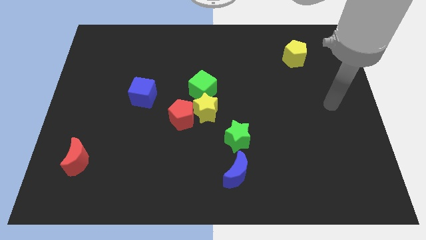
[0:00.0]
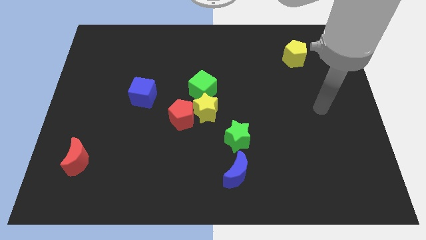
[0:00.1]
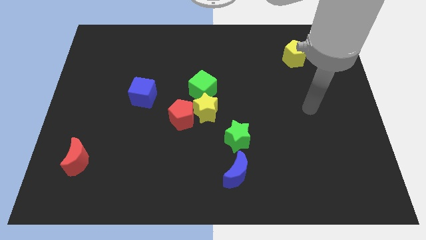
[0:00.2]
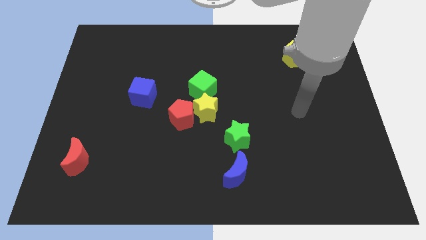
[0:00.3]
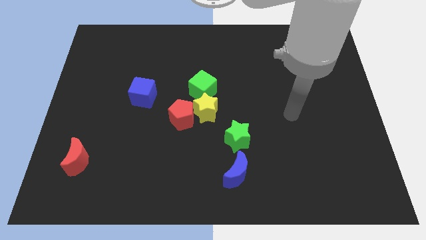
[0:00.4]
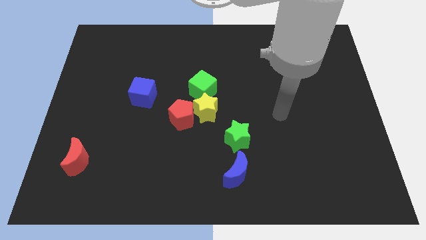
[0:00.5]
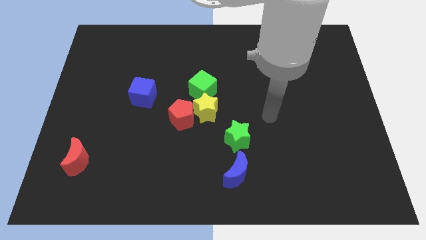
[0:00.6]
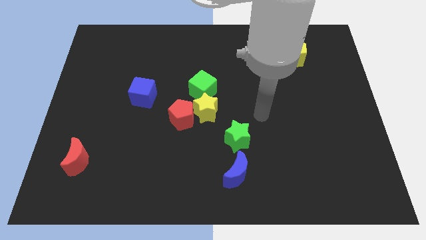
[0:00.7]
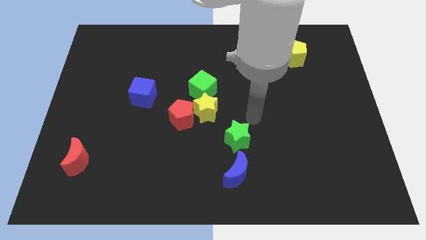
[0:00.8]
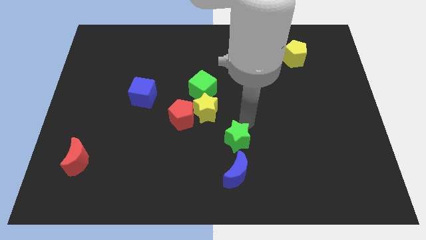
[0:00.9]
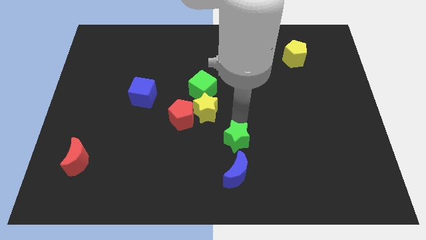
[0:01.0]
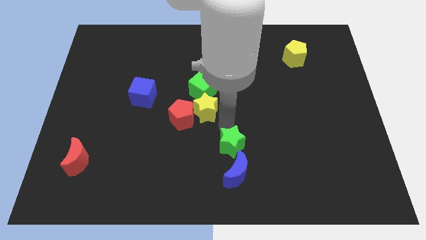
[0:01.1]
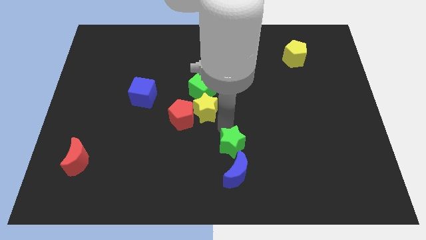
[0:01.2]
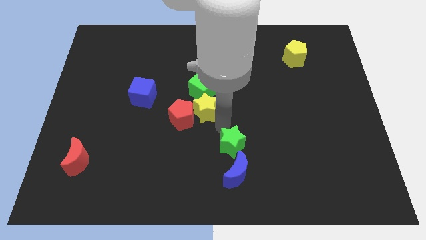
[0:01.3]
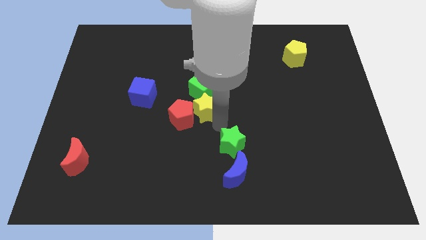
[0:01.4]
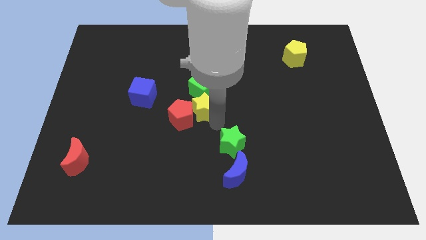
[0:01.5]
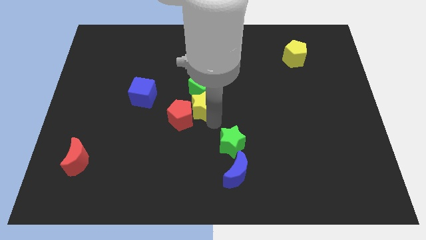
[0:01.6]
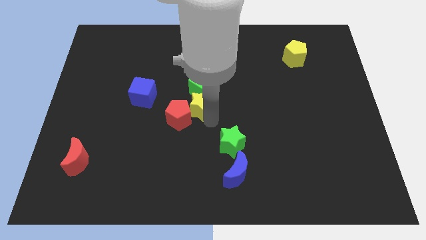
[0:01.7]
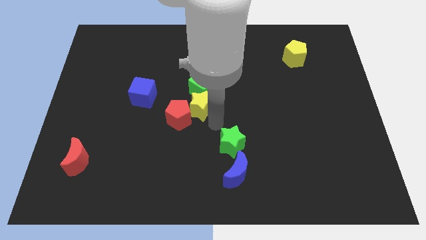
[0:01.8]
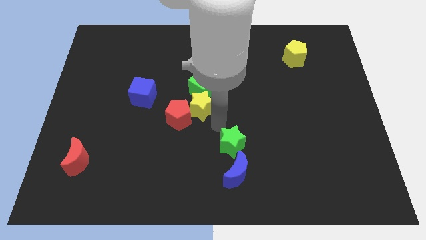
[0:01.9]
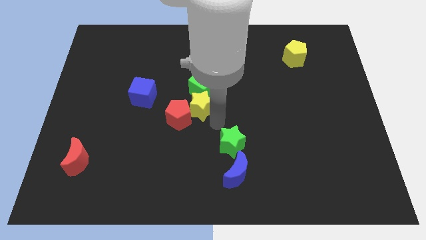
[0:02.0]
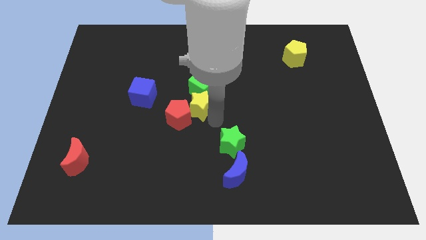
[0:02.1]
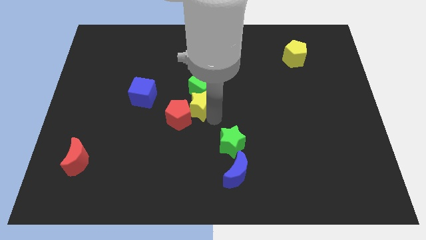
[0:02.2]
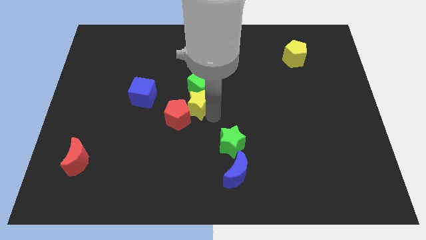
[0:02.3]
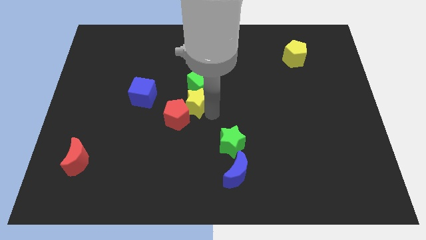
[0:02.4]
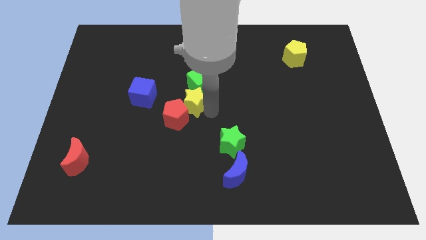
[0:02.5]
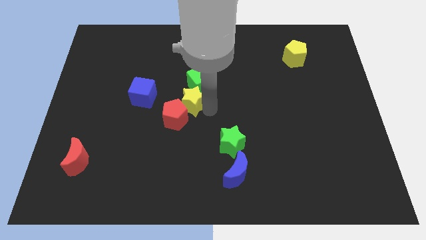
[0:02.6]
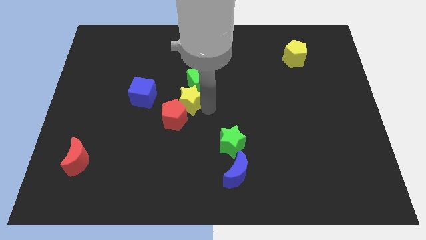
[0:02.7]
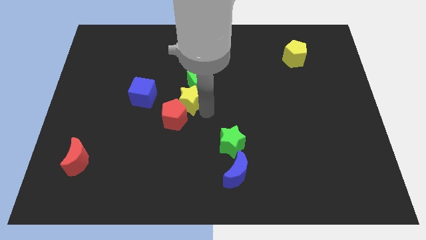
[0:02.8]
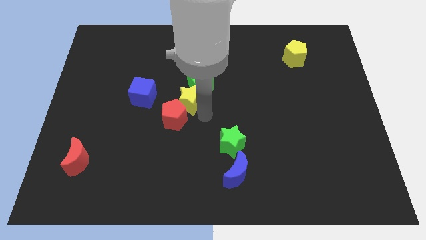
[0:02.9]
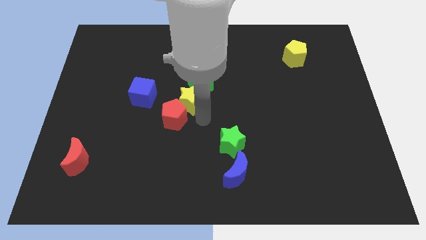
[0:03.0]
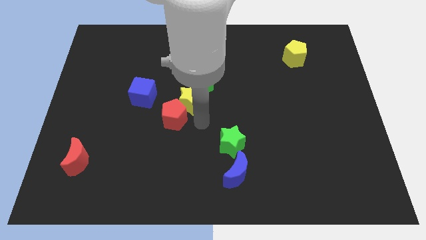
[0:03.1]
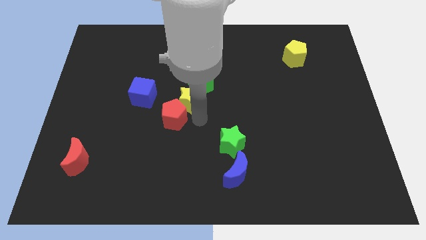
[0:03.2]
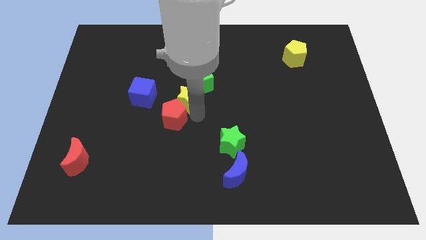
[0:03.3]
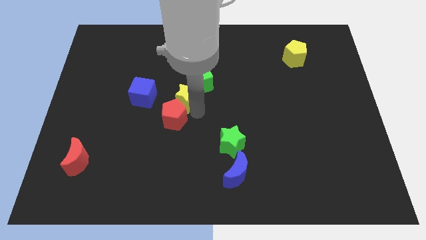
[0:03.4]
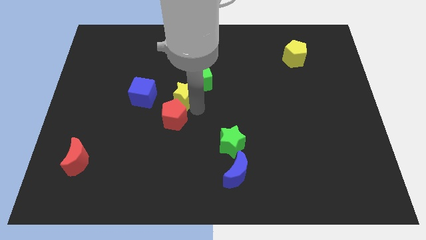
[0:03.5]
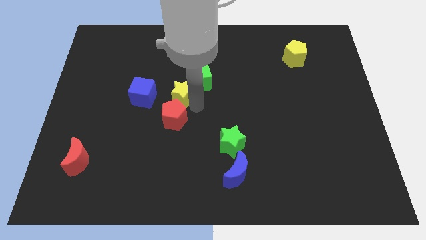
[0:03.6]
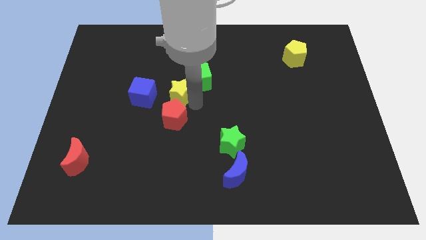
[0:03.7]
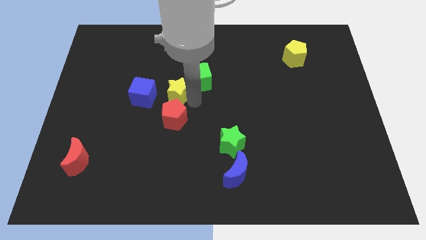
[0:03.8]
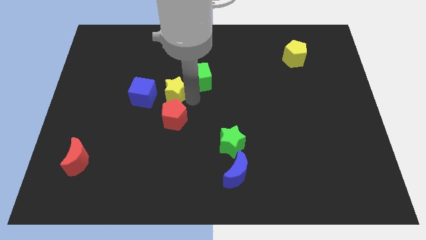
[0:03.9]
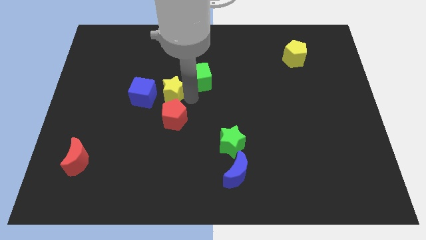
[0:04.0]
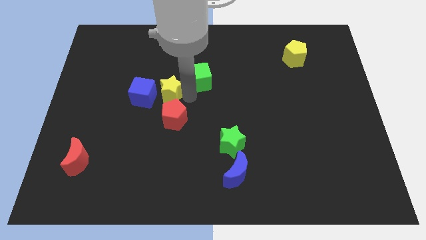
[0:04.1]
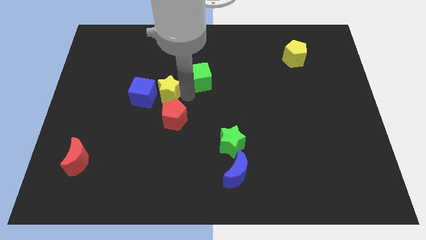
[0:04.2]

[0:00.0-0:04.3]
pull the yellow star apart from the red pentagon, green cube, and green star

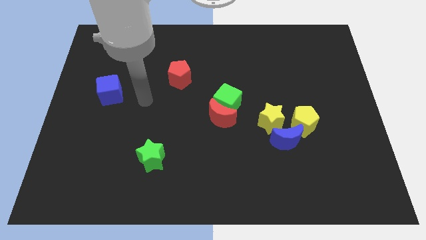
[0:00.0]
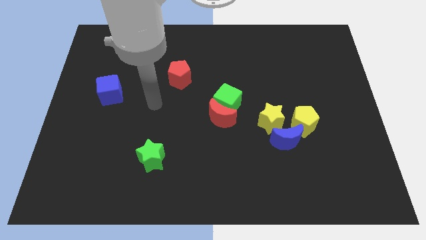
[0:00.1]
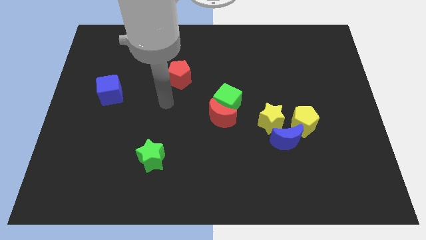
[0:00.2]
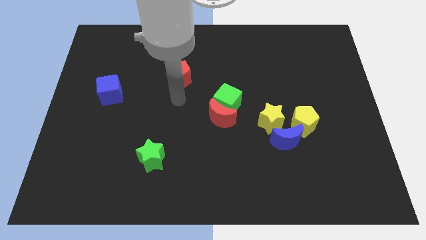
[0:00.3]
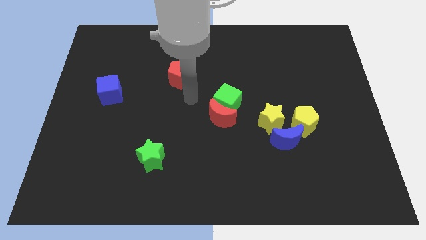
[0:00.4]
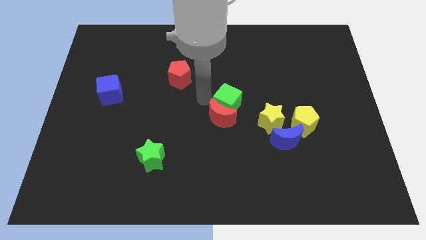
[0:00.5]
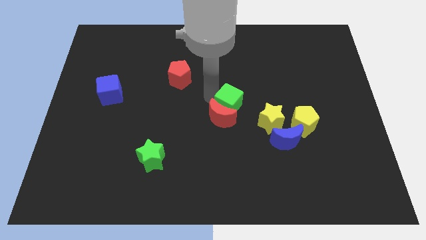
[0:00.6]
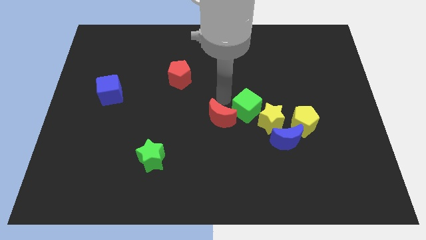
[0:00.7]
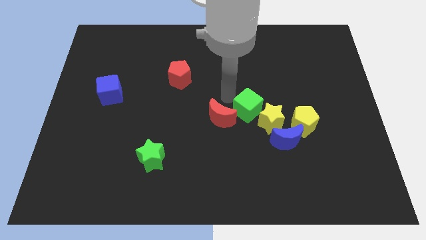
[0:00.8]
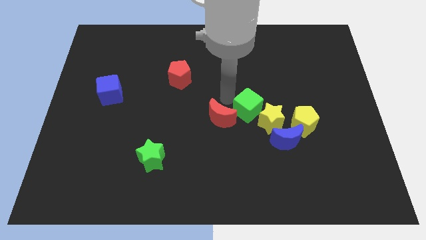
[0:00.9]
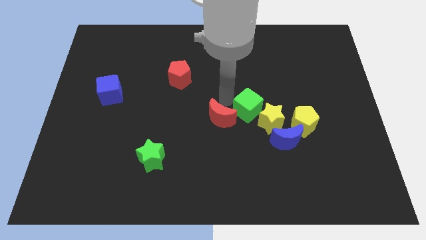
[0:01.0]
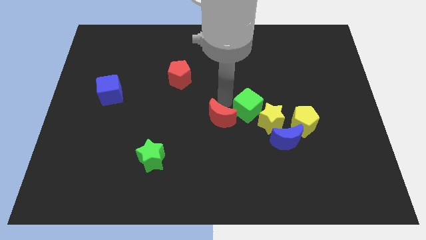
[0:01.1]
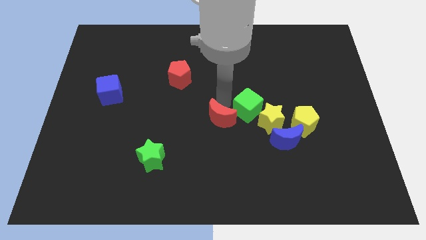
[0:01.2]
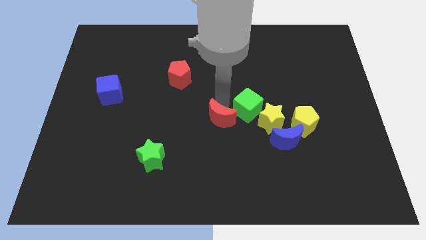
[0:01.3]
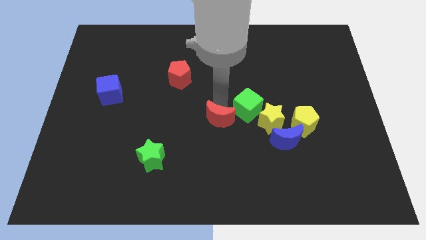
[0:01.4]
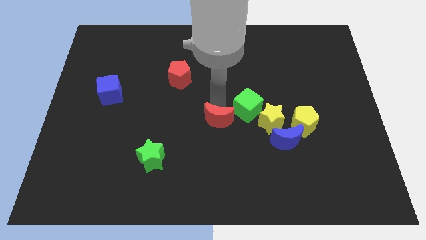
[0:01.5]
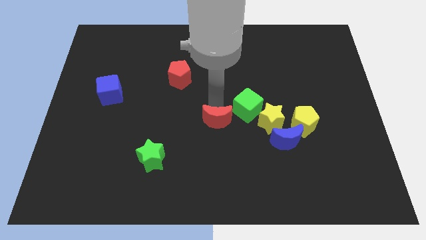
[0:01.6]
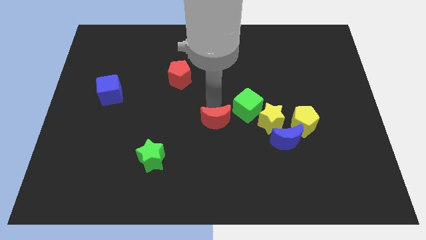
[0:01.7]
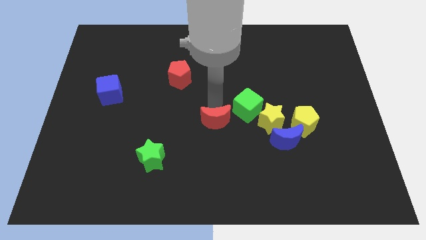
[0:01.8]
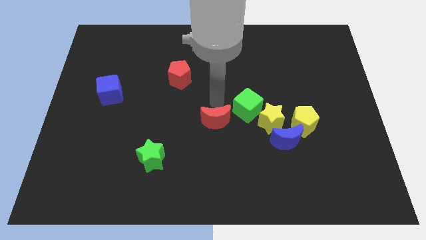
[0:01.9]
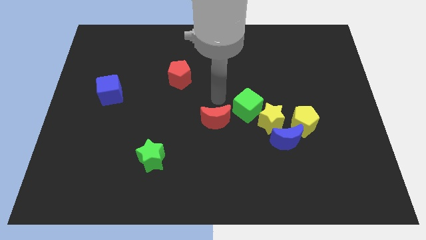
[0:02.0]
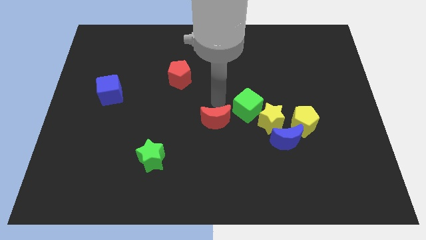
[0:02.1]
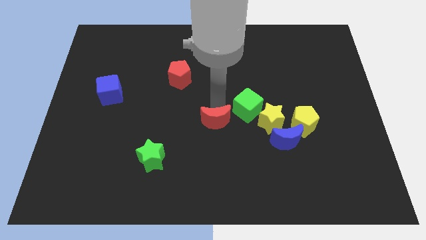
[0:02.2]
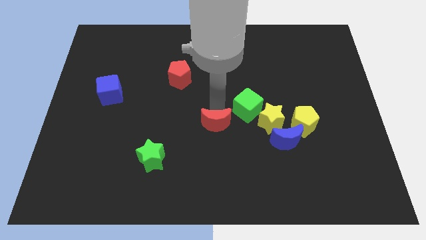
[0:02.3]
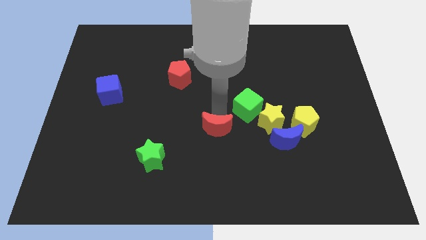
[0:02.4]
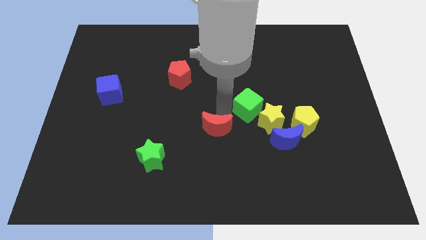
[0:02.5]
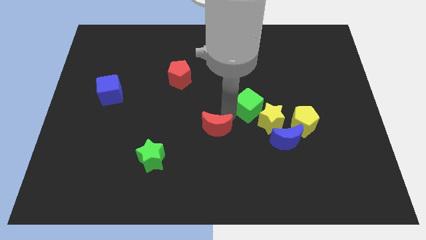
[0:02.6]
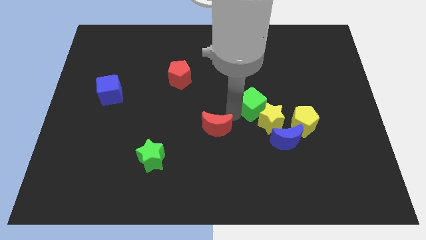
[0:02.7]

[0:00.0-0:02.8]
pull the red moon apart from the green cube

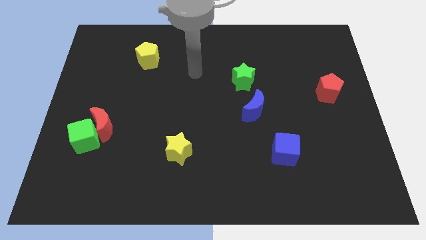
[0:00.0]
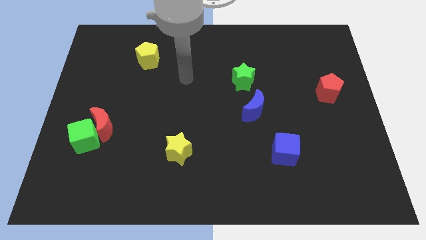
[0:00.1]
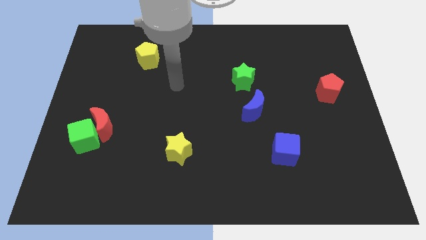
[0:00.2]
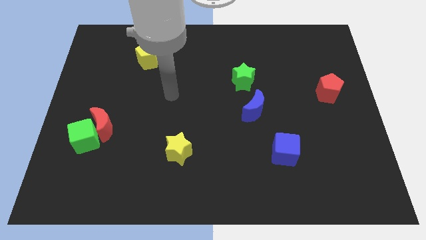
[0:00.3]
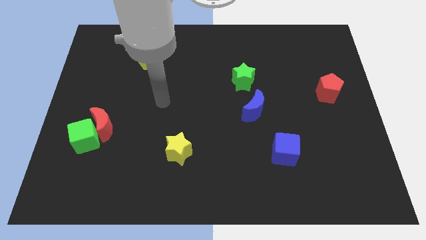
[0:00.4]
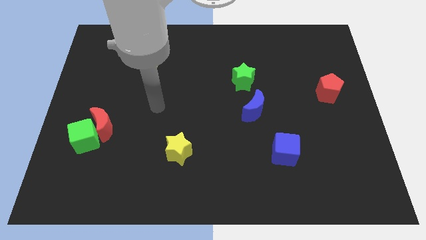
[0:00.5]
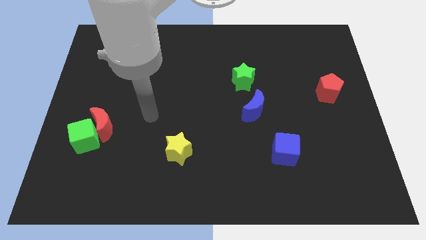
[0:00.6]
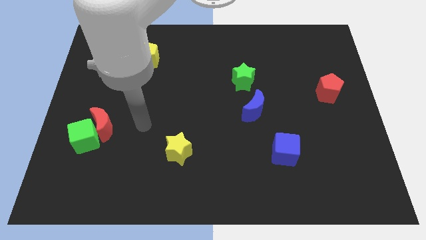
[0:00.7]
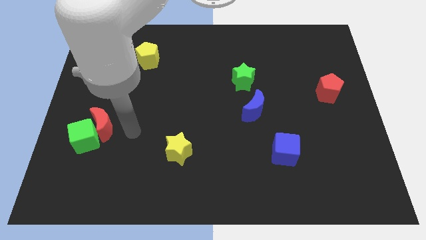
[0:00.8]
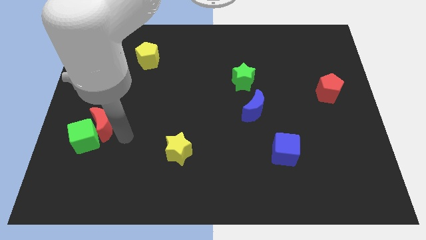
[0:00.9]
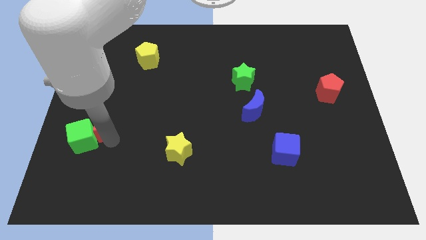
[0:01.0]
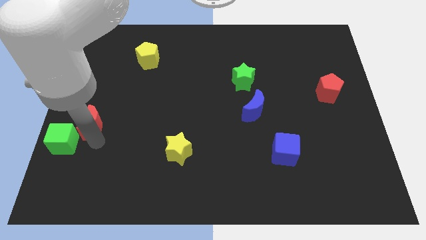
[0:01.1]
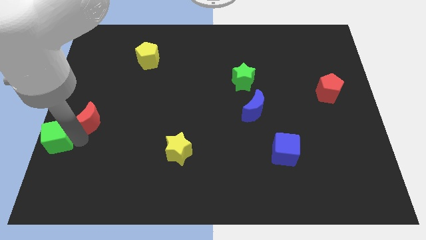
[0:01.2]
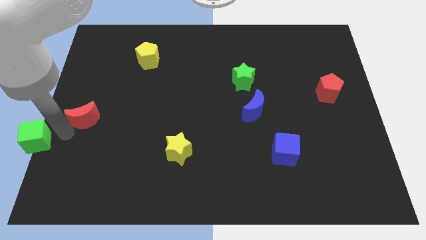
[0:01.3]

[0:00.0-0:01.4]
move the red moon away from the green cube

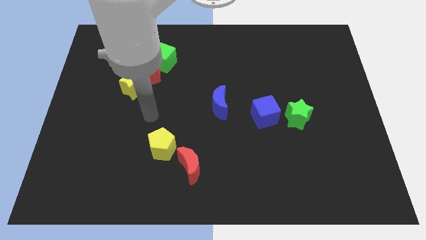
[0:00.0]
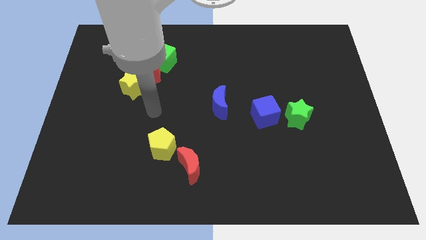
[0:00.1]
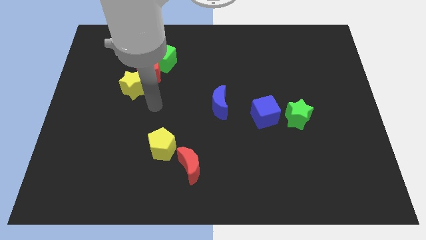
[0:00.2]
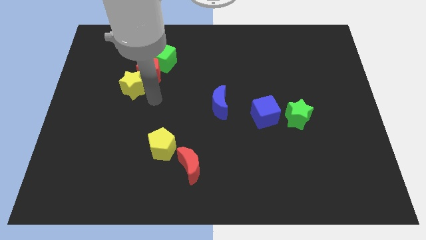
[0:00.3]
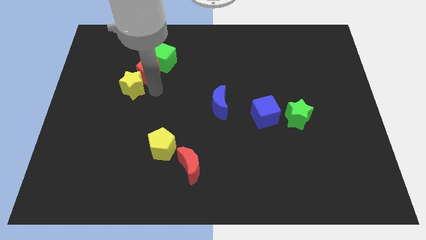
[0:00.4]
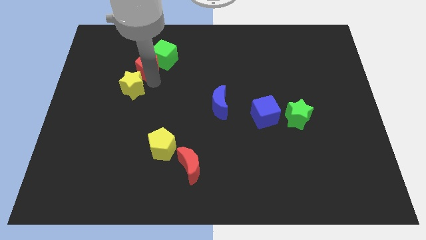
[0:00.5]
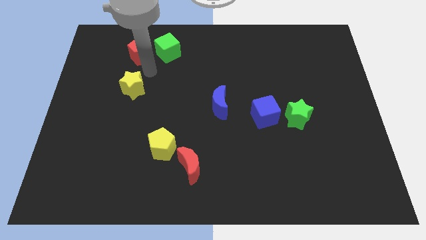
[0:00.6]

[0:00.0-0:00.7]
move the yellow star away from the red pentagon

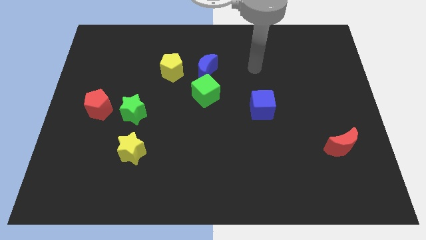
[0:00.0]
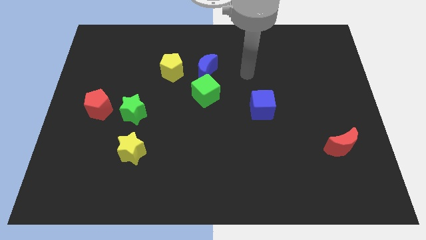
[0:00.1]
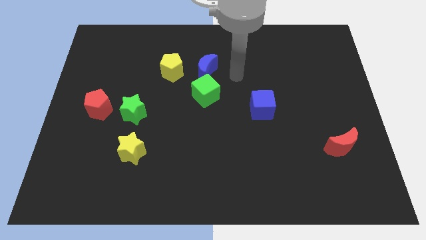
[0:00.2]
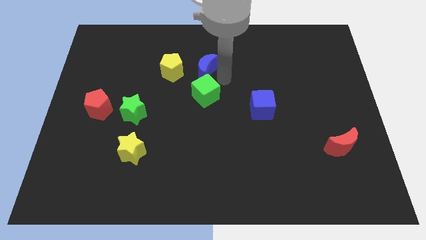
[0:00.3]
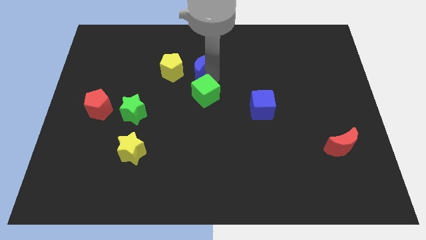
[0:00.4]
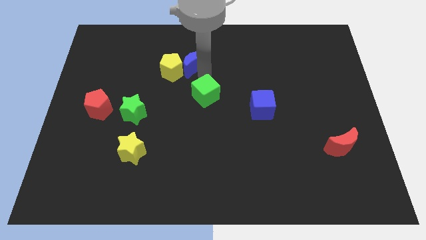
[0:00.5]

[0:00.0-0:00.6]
separate the green cube from the blue moon
